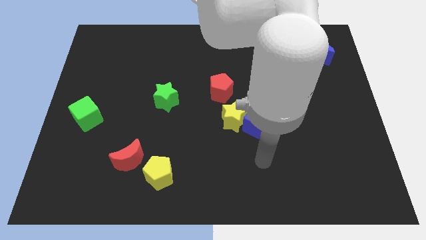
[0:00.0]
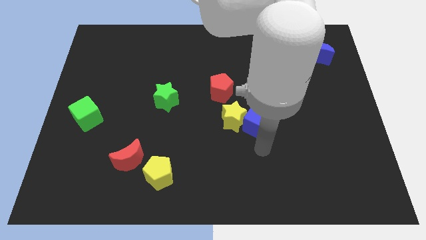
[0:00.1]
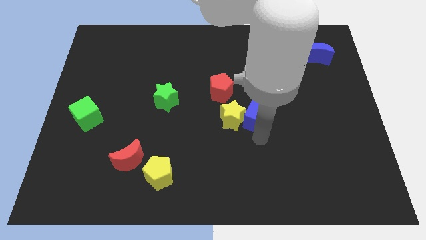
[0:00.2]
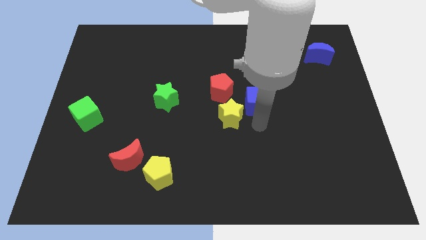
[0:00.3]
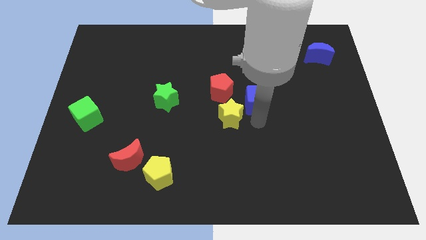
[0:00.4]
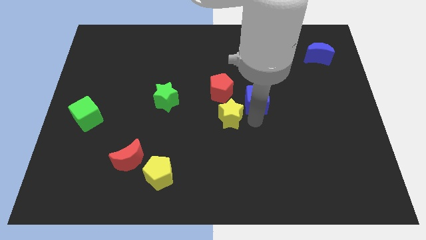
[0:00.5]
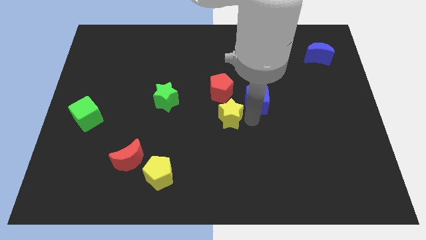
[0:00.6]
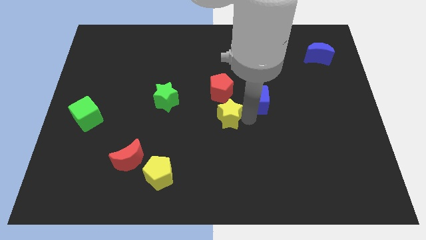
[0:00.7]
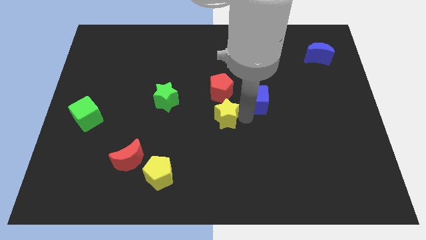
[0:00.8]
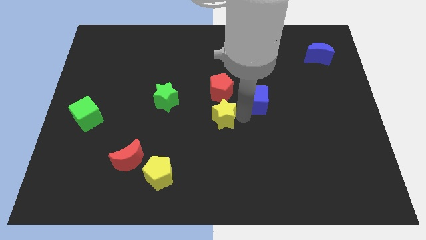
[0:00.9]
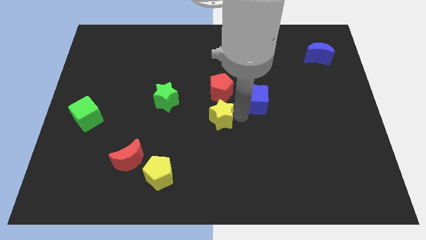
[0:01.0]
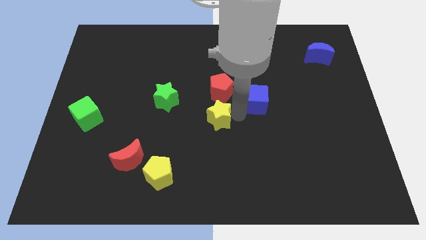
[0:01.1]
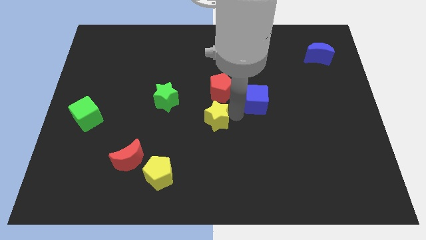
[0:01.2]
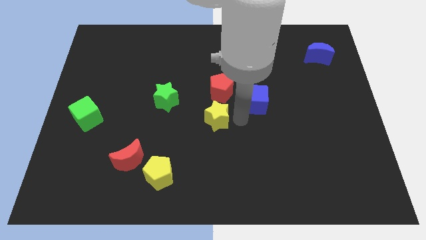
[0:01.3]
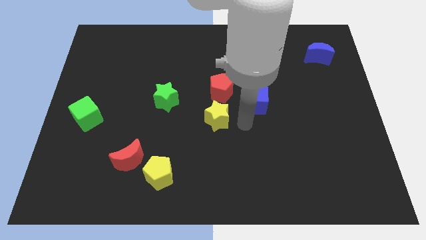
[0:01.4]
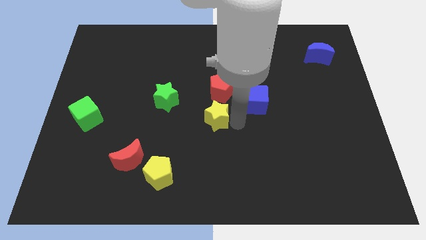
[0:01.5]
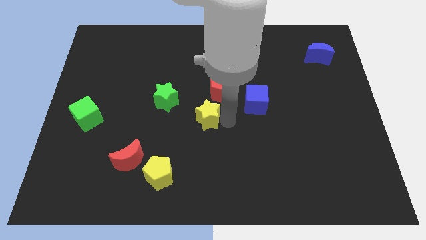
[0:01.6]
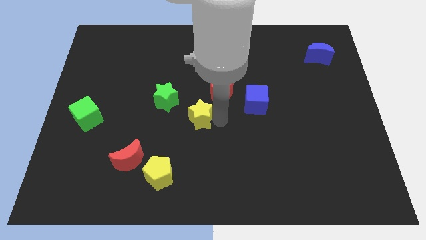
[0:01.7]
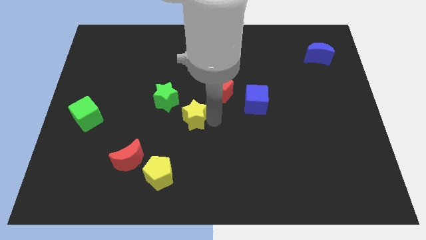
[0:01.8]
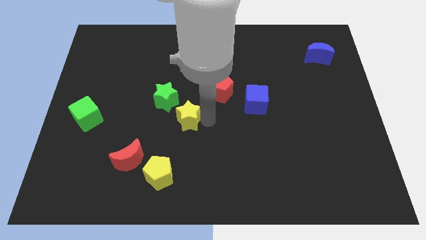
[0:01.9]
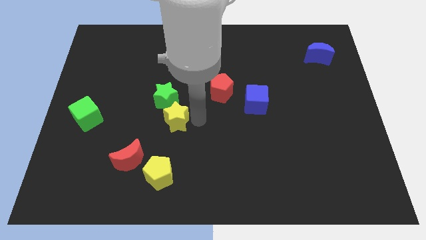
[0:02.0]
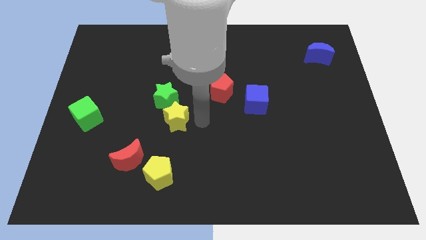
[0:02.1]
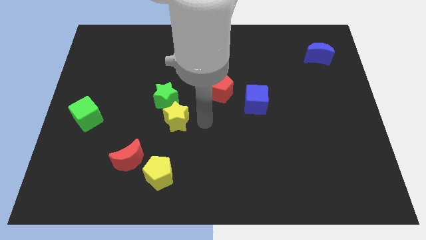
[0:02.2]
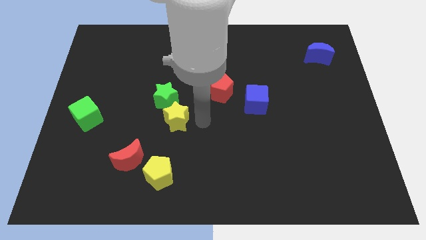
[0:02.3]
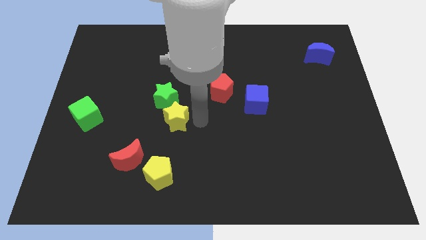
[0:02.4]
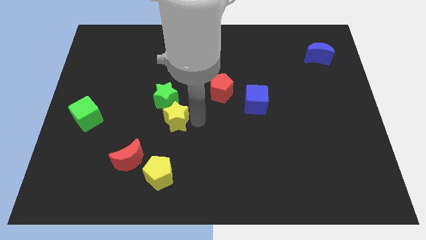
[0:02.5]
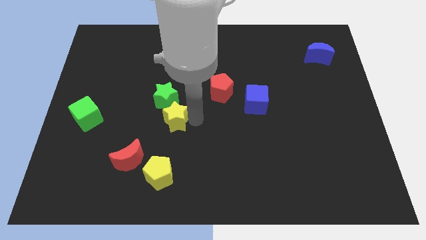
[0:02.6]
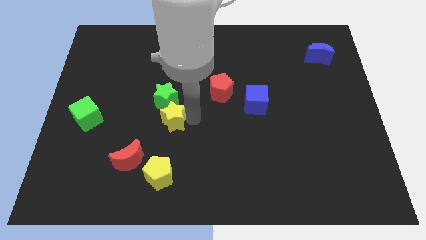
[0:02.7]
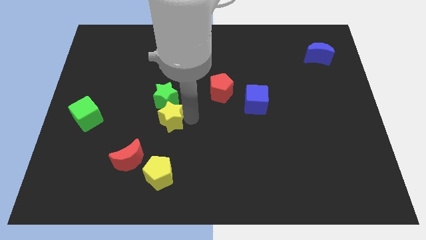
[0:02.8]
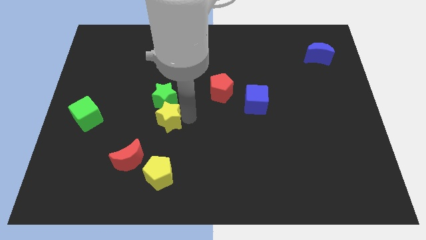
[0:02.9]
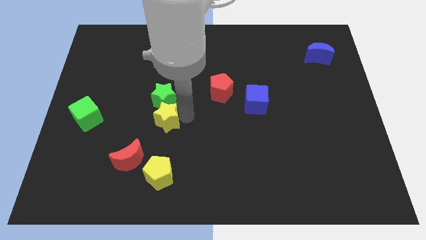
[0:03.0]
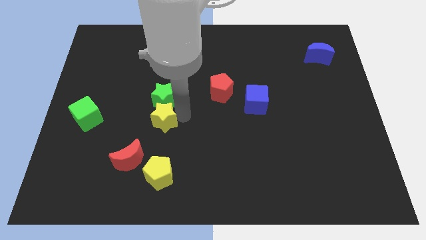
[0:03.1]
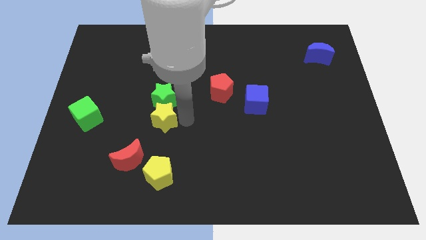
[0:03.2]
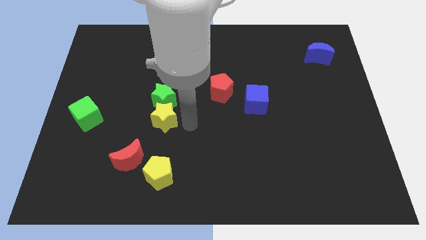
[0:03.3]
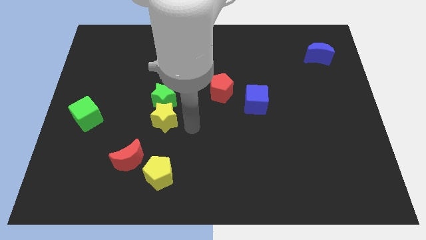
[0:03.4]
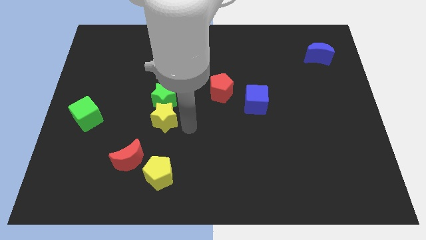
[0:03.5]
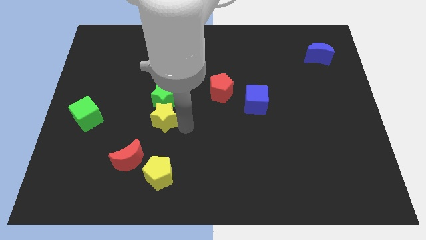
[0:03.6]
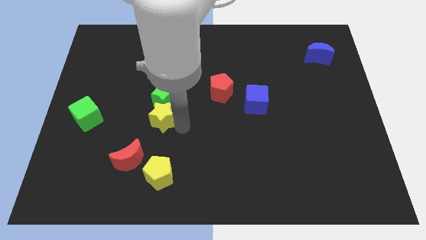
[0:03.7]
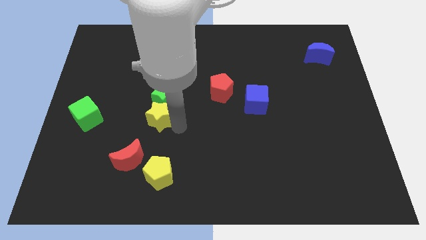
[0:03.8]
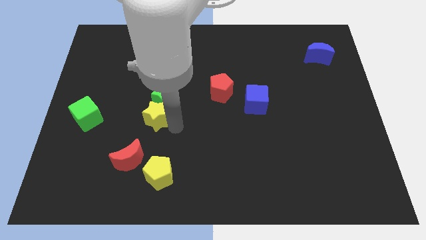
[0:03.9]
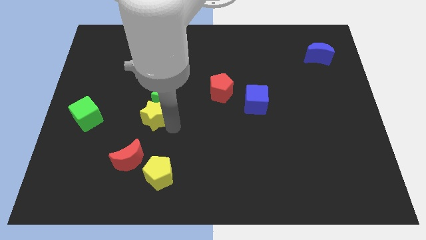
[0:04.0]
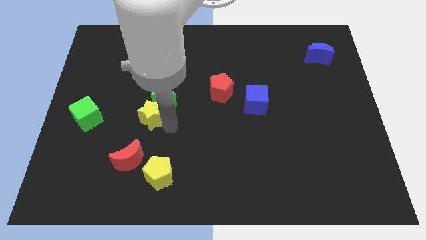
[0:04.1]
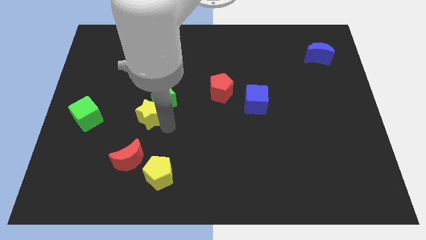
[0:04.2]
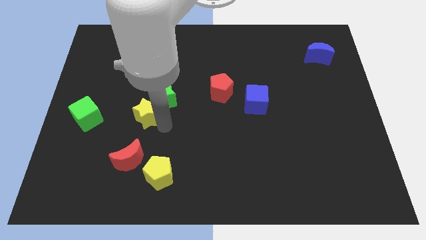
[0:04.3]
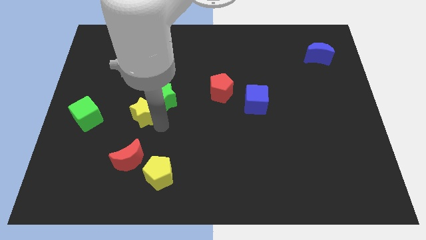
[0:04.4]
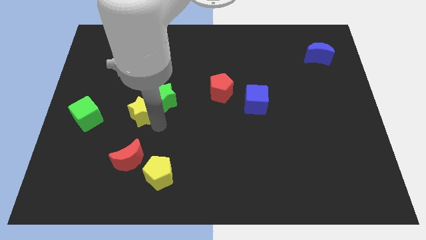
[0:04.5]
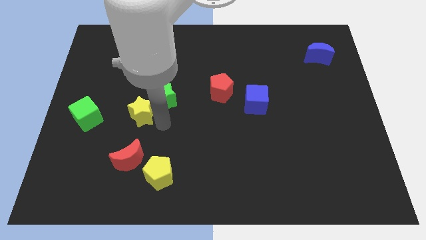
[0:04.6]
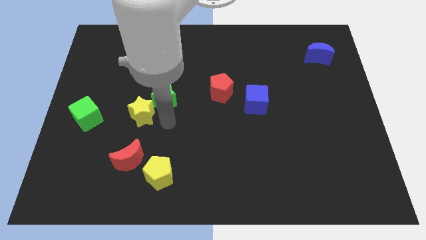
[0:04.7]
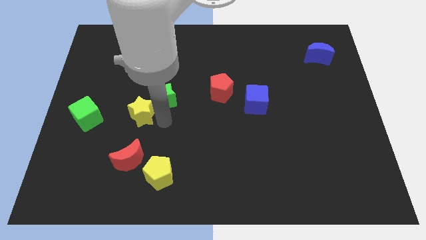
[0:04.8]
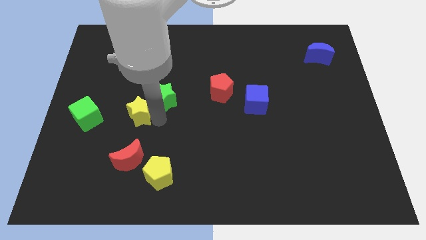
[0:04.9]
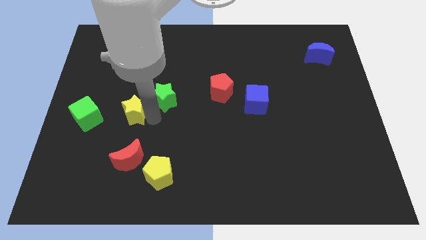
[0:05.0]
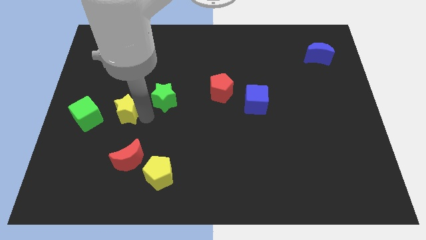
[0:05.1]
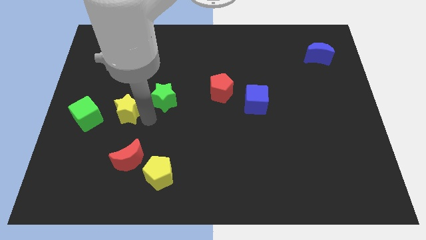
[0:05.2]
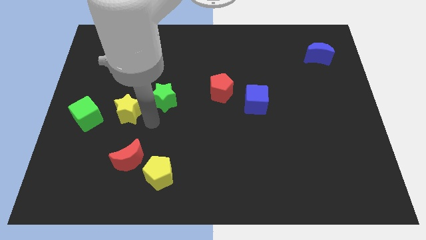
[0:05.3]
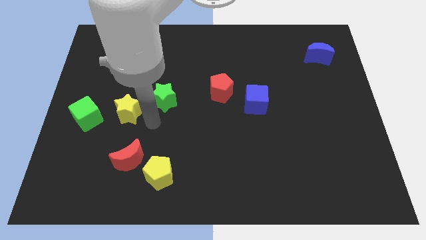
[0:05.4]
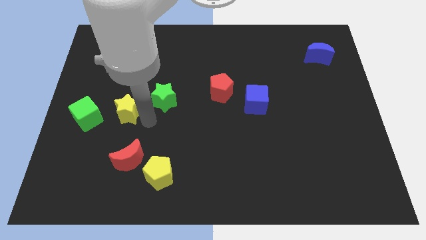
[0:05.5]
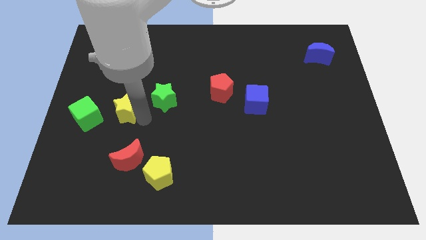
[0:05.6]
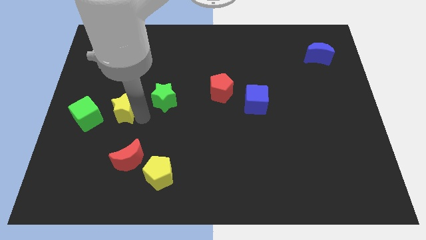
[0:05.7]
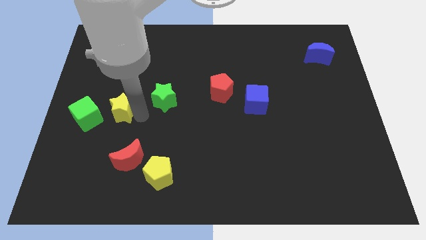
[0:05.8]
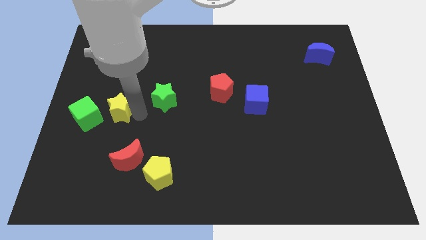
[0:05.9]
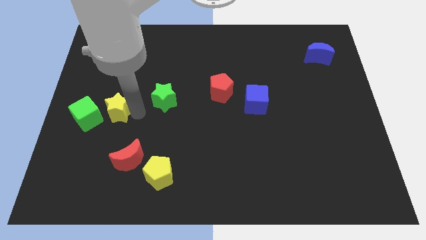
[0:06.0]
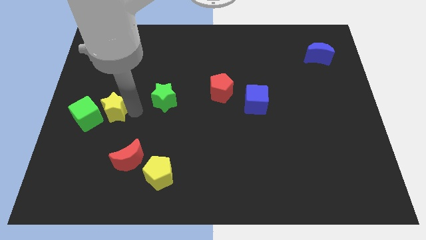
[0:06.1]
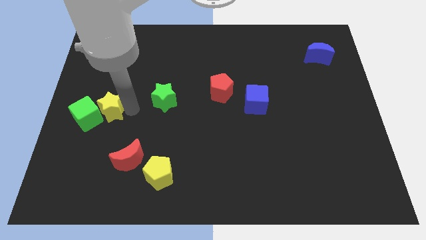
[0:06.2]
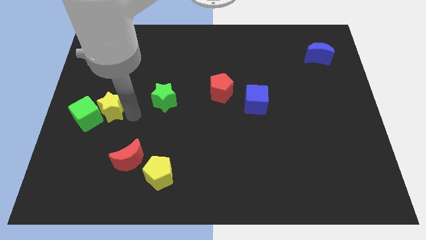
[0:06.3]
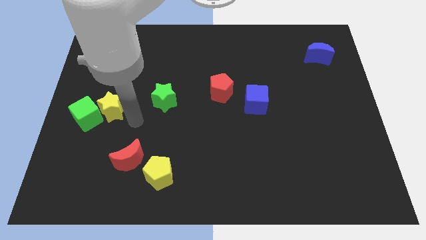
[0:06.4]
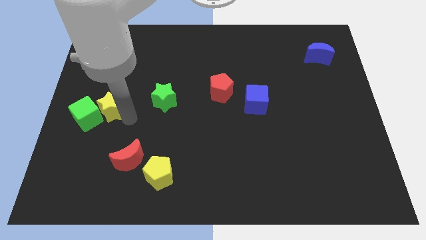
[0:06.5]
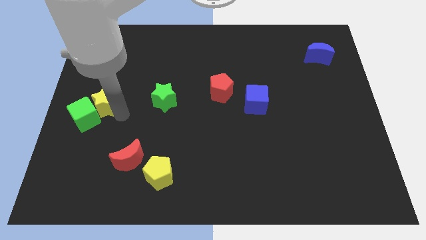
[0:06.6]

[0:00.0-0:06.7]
push the yellow star to the left side
